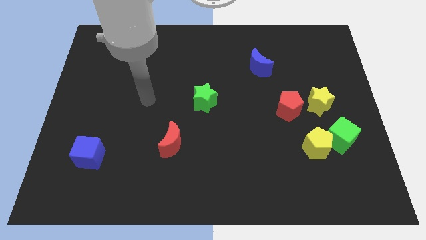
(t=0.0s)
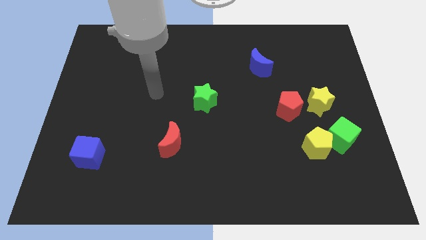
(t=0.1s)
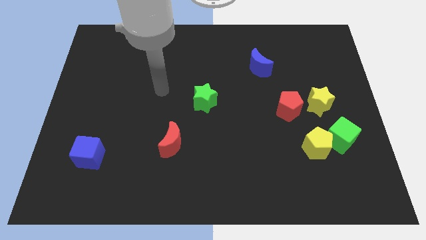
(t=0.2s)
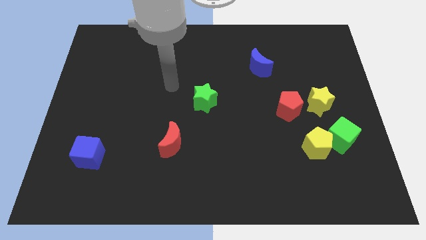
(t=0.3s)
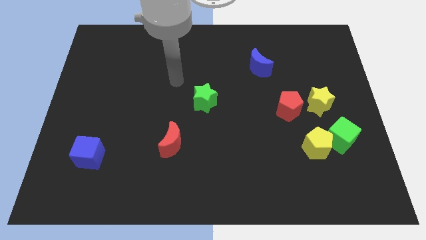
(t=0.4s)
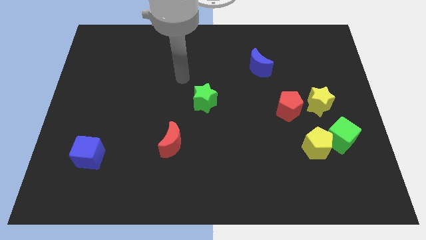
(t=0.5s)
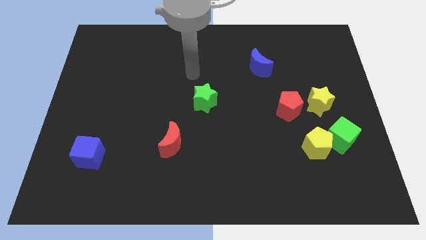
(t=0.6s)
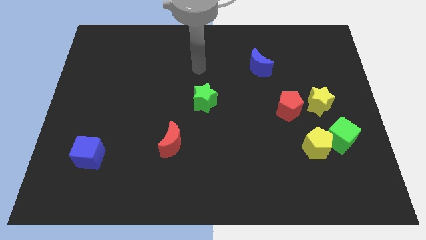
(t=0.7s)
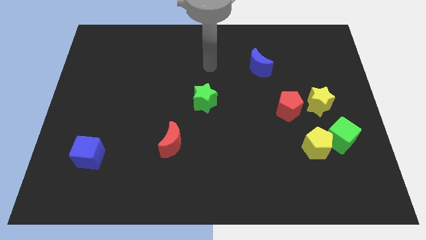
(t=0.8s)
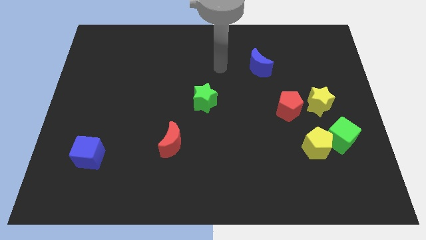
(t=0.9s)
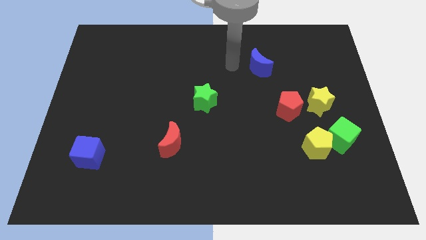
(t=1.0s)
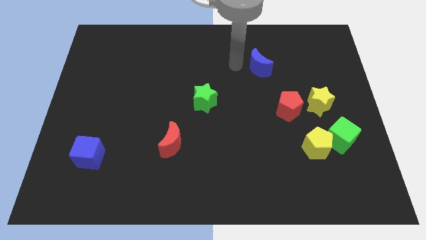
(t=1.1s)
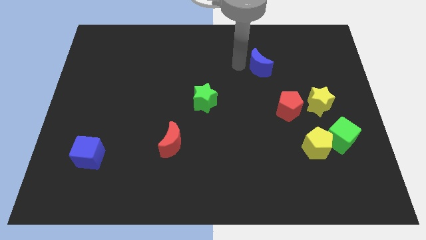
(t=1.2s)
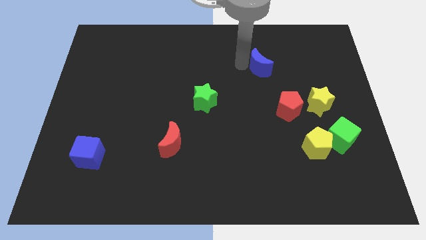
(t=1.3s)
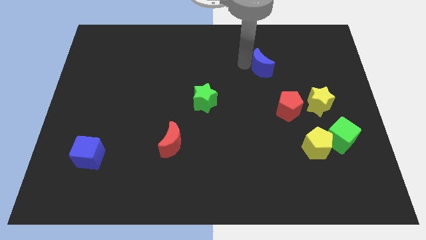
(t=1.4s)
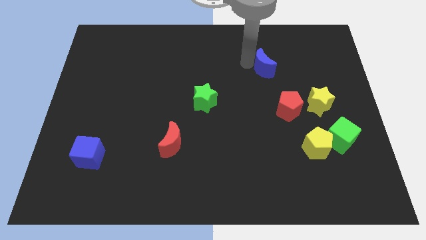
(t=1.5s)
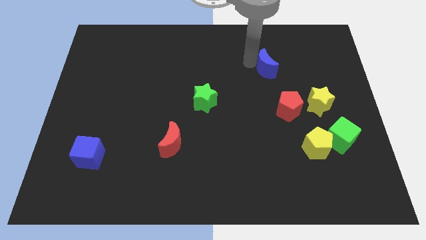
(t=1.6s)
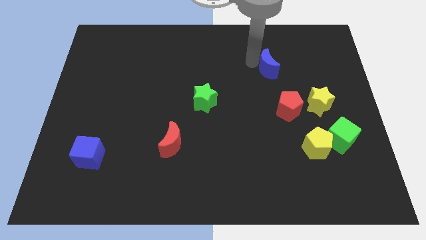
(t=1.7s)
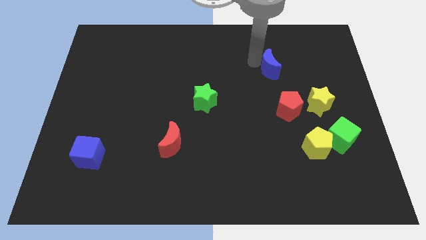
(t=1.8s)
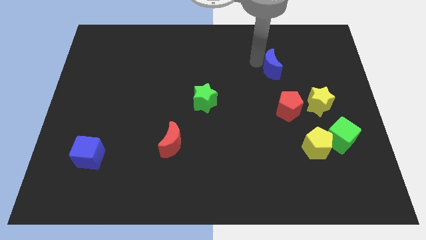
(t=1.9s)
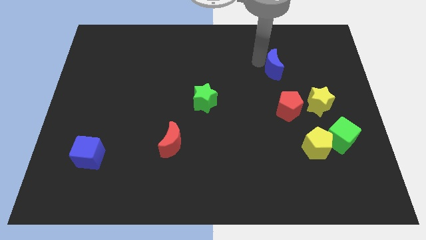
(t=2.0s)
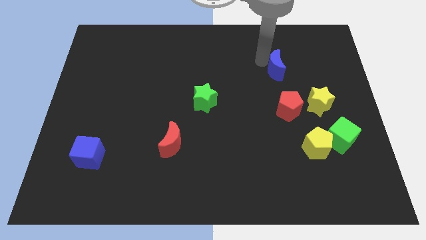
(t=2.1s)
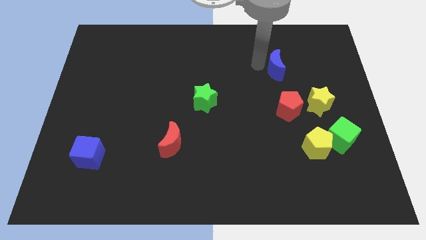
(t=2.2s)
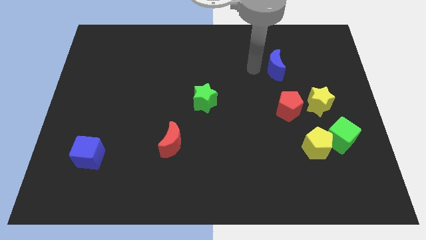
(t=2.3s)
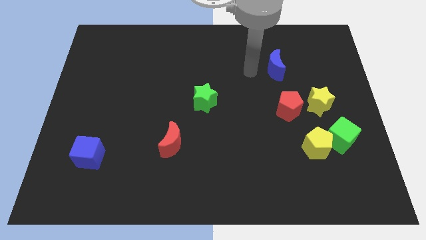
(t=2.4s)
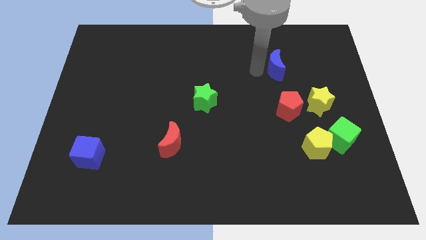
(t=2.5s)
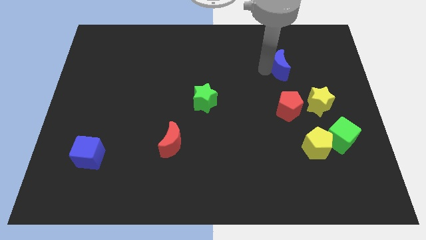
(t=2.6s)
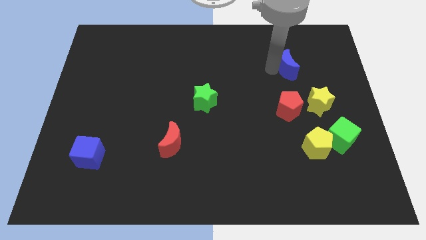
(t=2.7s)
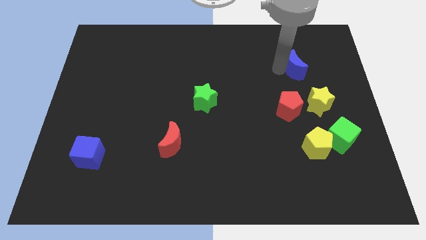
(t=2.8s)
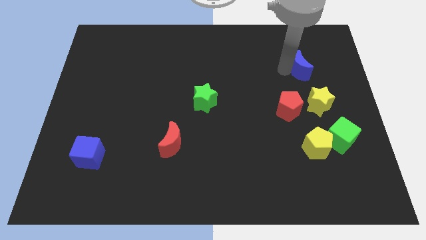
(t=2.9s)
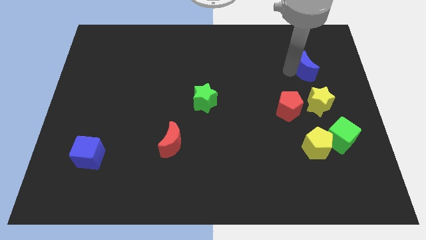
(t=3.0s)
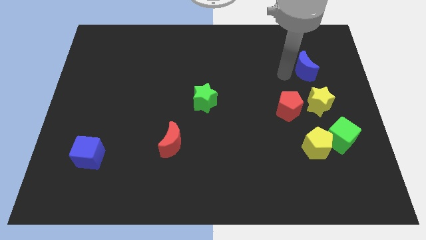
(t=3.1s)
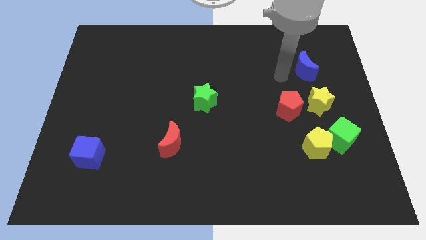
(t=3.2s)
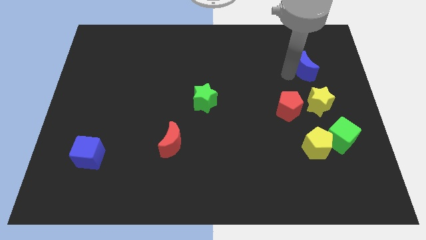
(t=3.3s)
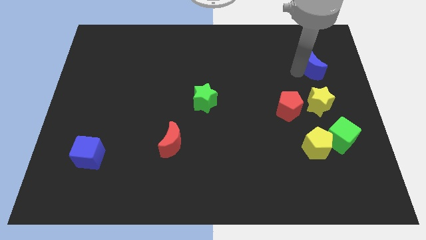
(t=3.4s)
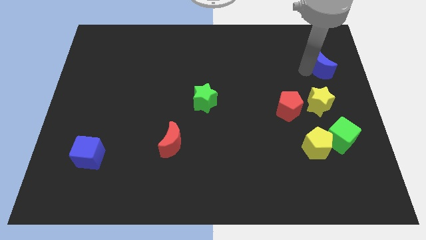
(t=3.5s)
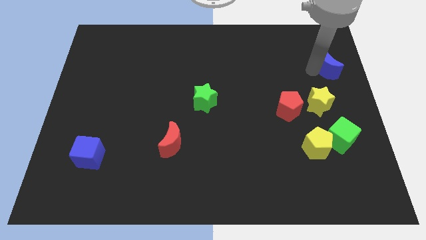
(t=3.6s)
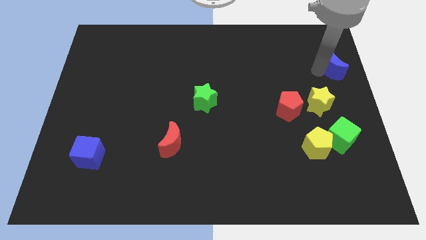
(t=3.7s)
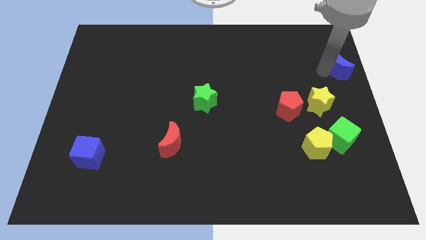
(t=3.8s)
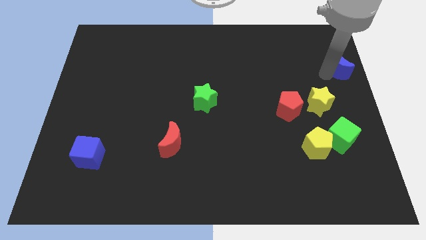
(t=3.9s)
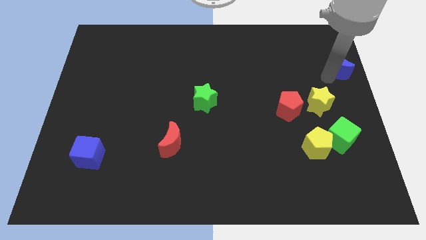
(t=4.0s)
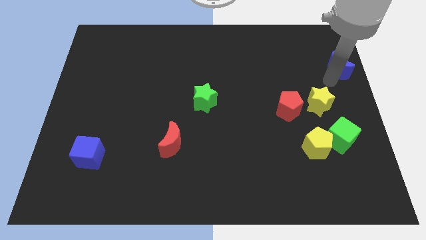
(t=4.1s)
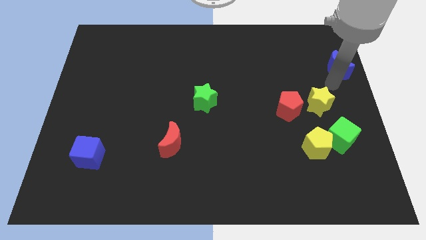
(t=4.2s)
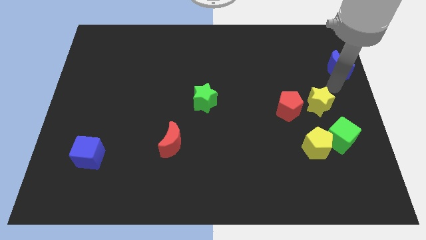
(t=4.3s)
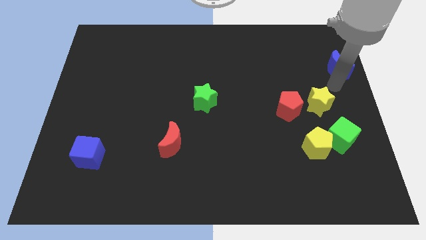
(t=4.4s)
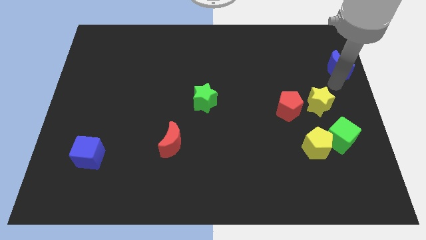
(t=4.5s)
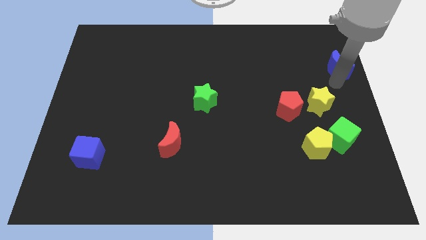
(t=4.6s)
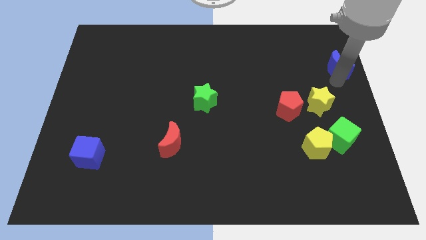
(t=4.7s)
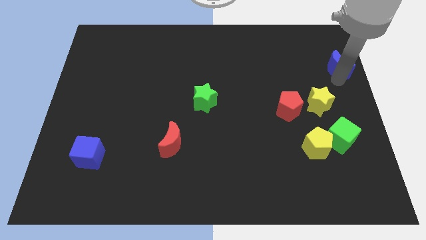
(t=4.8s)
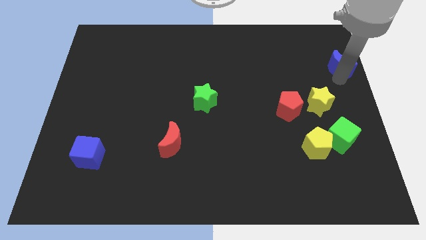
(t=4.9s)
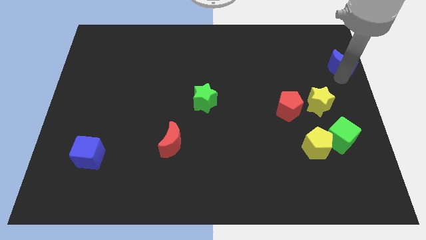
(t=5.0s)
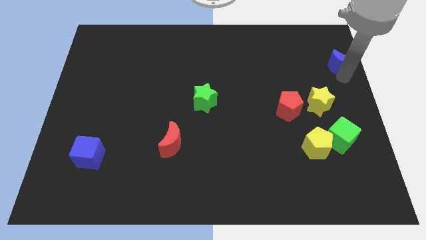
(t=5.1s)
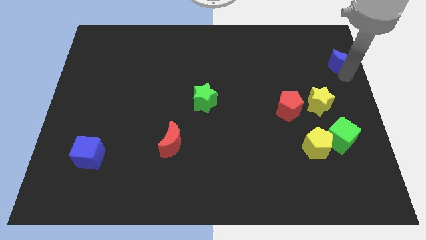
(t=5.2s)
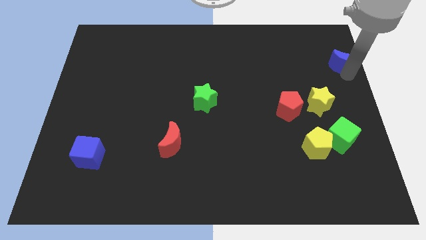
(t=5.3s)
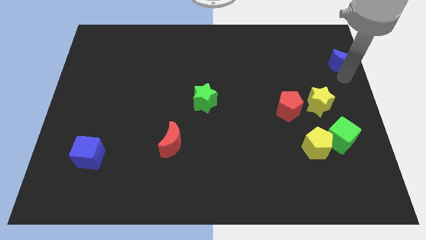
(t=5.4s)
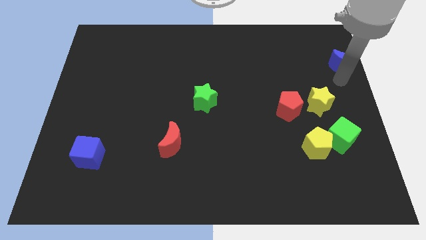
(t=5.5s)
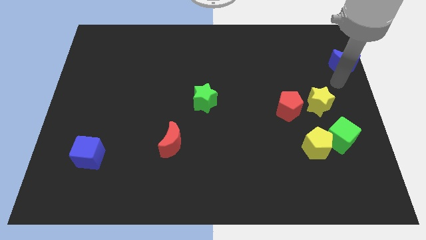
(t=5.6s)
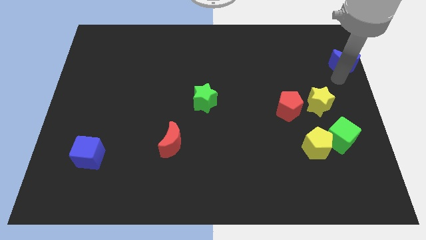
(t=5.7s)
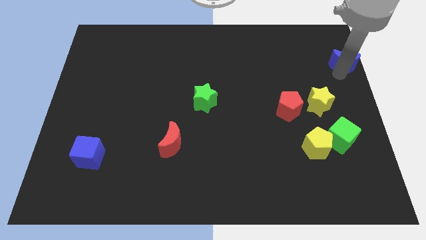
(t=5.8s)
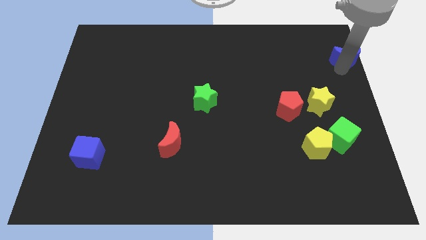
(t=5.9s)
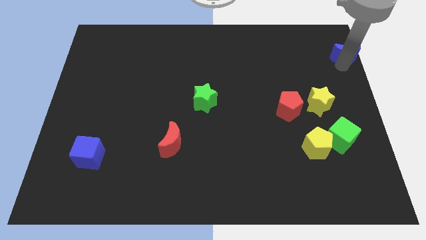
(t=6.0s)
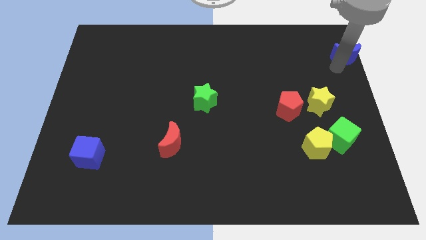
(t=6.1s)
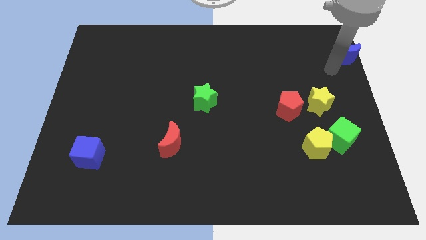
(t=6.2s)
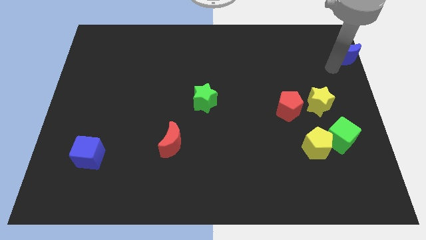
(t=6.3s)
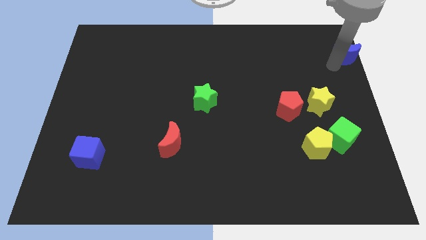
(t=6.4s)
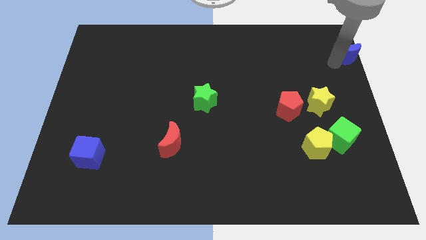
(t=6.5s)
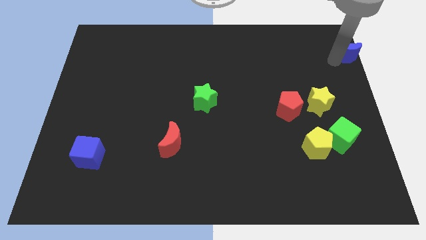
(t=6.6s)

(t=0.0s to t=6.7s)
slide the blue moon to the top right corner
